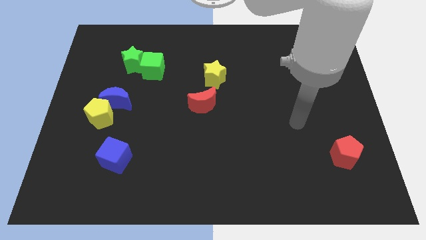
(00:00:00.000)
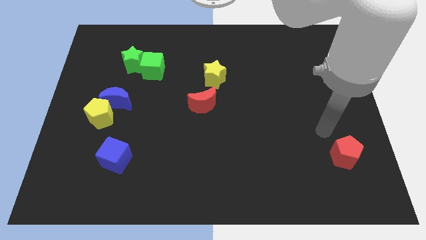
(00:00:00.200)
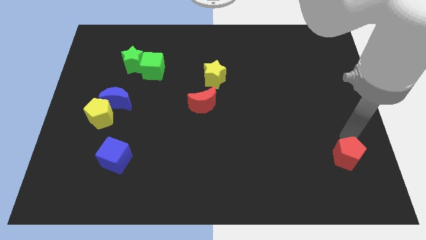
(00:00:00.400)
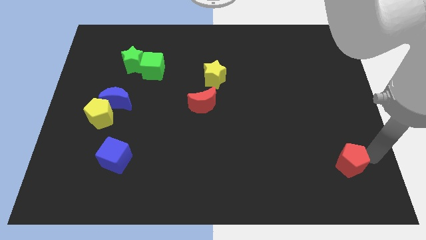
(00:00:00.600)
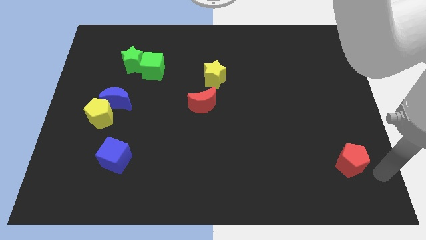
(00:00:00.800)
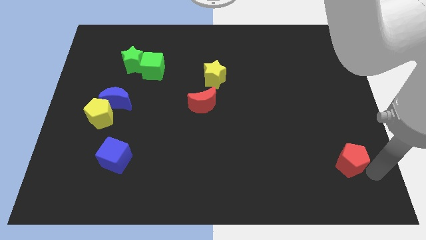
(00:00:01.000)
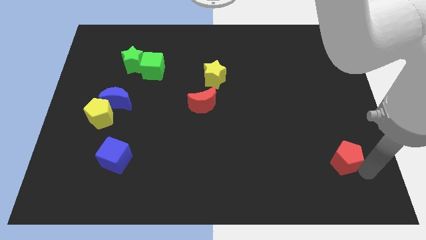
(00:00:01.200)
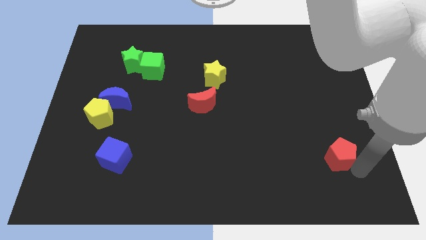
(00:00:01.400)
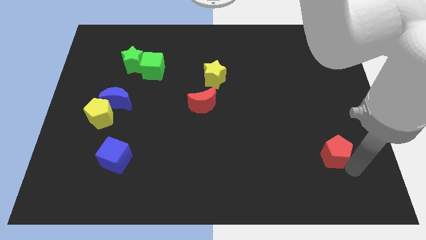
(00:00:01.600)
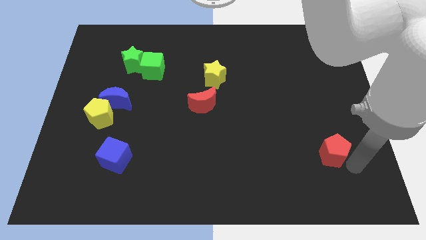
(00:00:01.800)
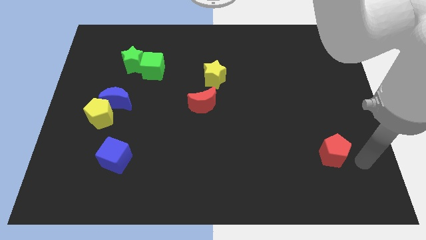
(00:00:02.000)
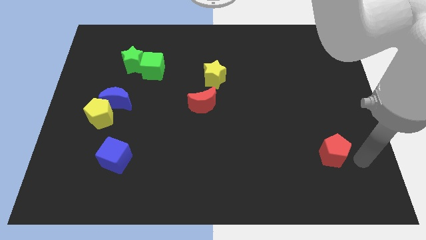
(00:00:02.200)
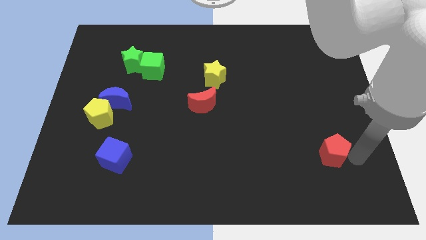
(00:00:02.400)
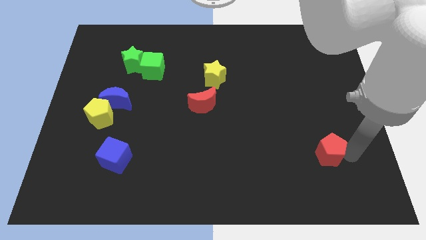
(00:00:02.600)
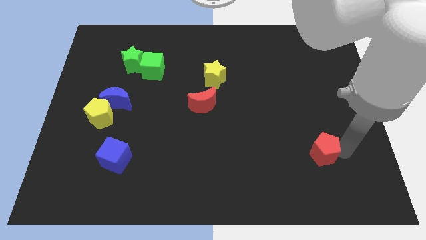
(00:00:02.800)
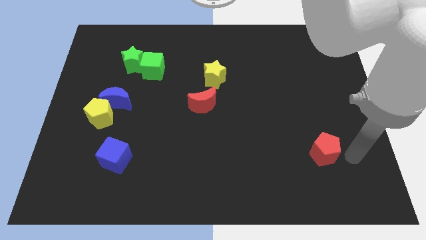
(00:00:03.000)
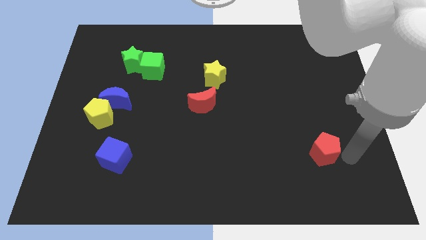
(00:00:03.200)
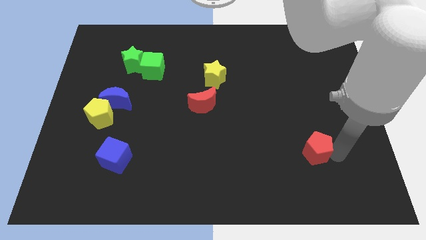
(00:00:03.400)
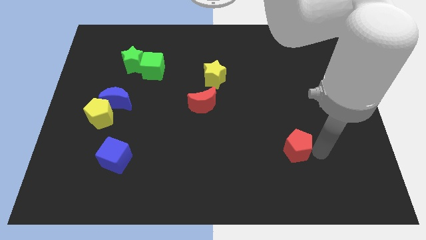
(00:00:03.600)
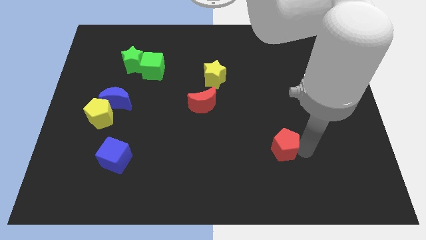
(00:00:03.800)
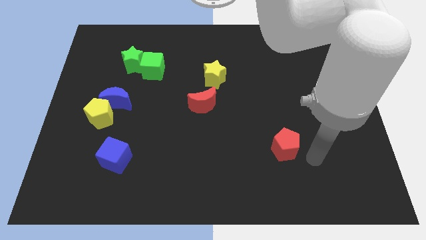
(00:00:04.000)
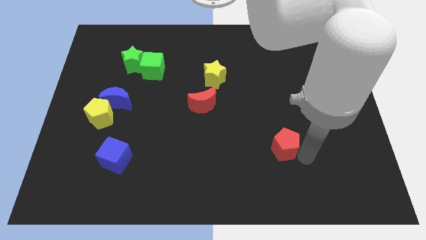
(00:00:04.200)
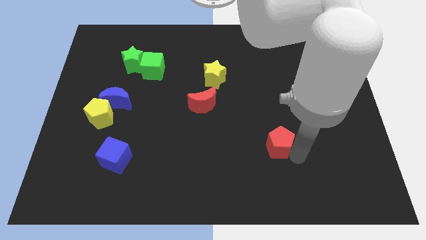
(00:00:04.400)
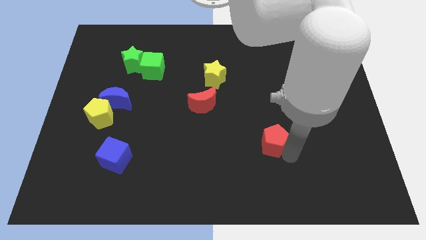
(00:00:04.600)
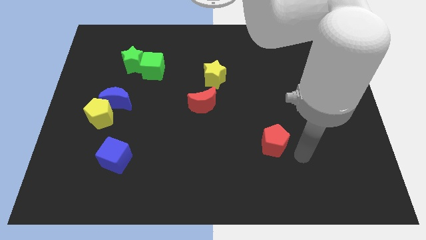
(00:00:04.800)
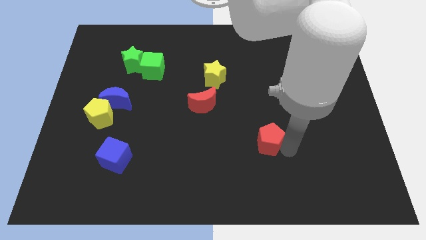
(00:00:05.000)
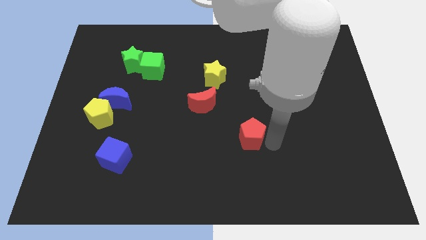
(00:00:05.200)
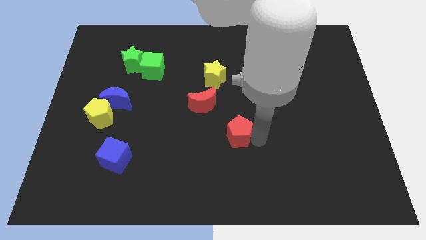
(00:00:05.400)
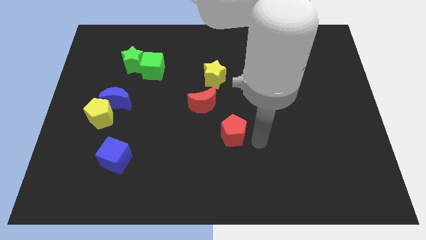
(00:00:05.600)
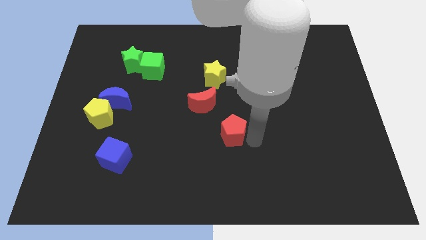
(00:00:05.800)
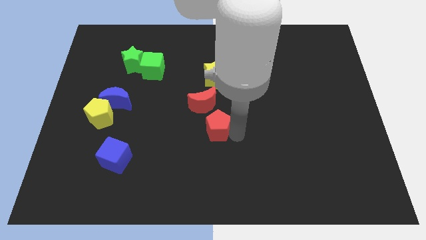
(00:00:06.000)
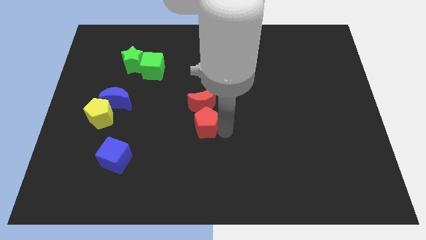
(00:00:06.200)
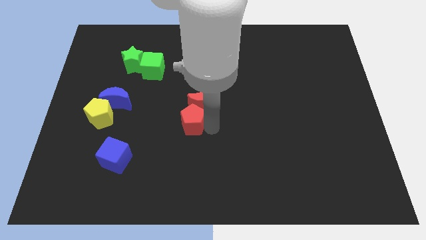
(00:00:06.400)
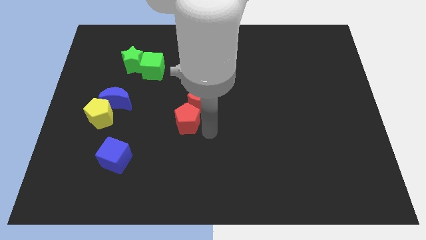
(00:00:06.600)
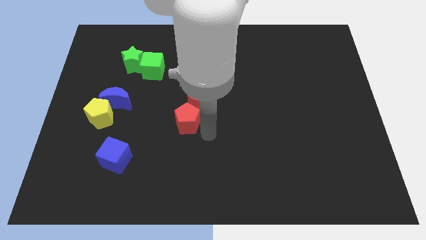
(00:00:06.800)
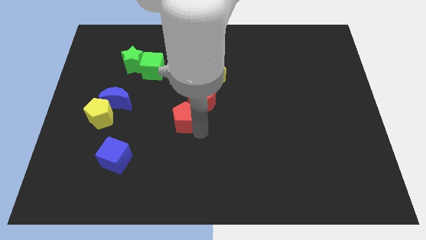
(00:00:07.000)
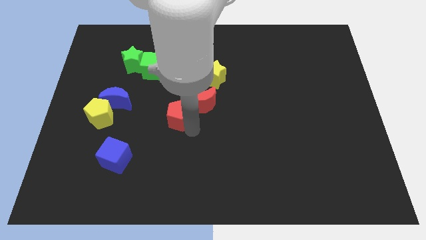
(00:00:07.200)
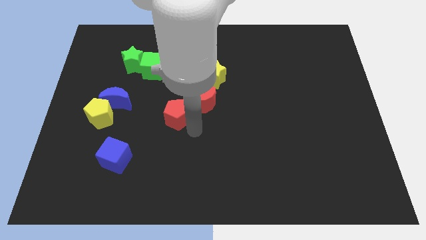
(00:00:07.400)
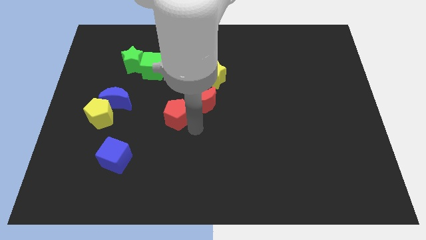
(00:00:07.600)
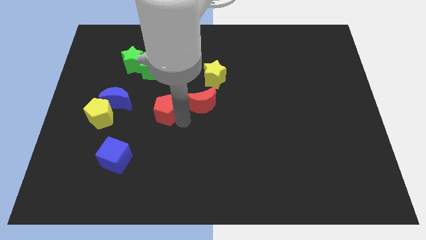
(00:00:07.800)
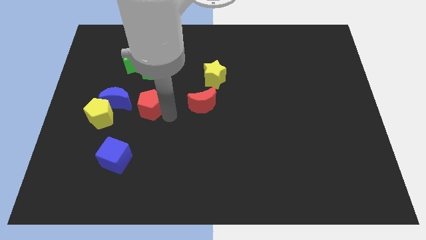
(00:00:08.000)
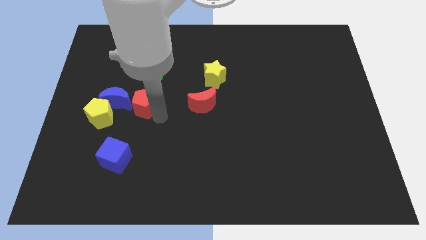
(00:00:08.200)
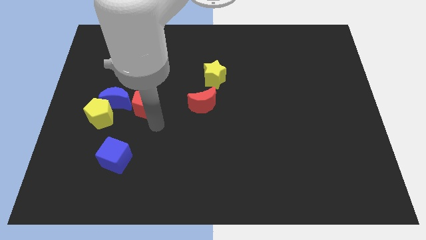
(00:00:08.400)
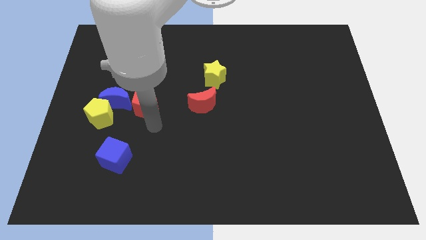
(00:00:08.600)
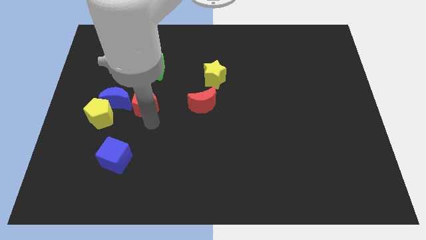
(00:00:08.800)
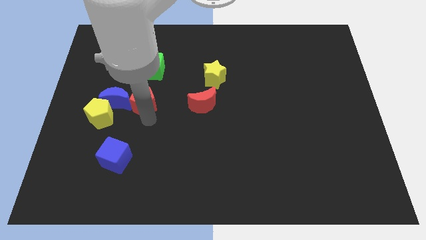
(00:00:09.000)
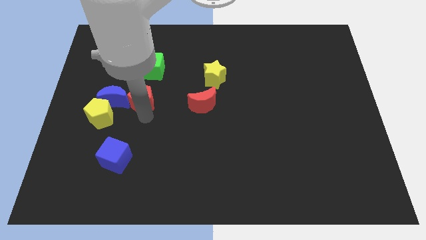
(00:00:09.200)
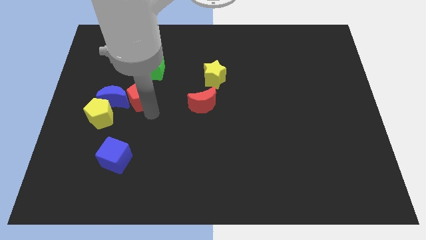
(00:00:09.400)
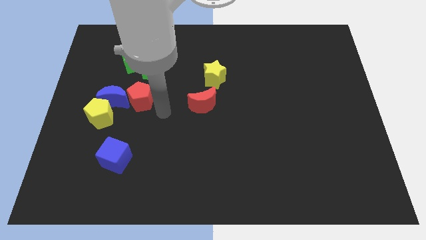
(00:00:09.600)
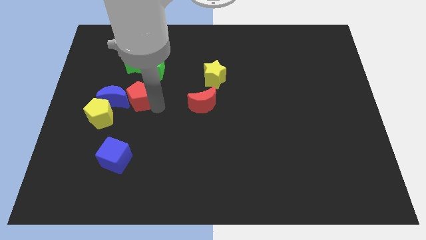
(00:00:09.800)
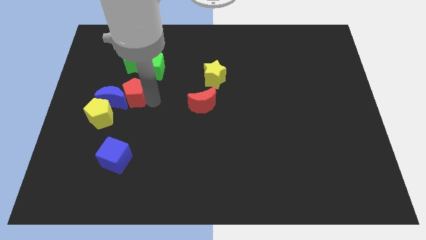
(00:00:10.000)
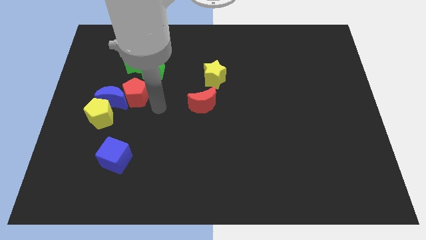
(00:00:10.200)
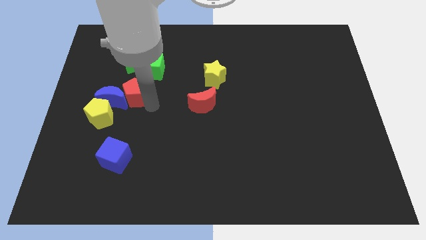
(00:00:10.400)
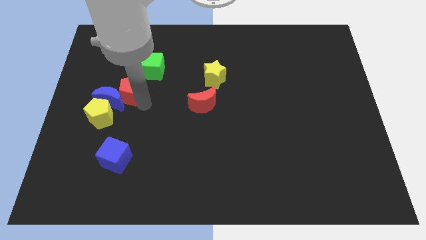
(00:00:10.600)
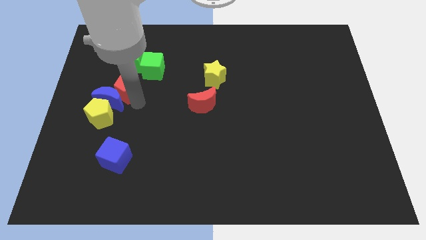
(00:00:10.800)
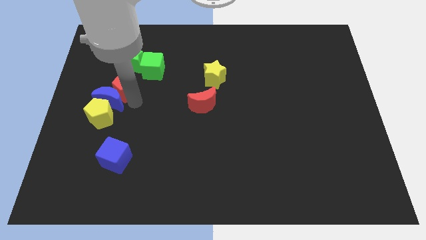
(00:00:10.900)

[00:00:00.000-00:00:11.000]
push the red pentagon above the yellow pentagon
